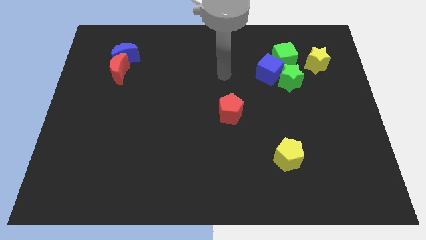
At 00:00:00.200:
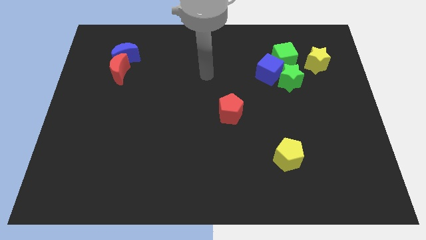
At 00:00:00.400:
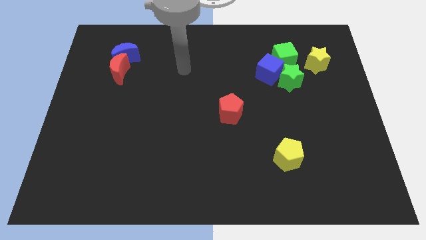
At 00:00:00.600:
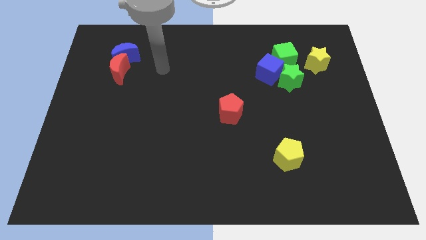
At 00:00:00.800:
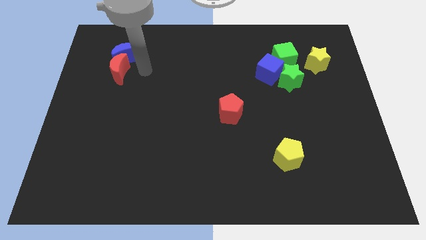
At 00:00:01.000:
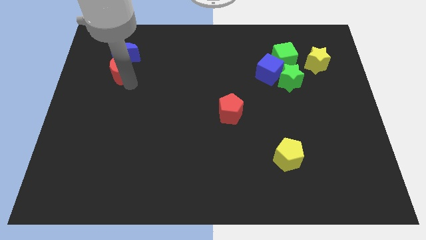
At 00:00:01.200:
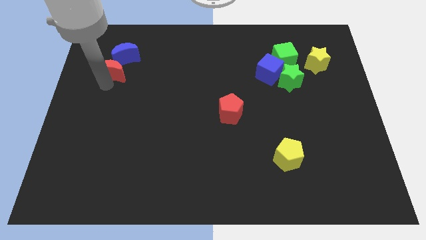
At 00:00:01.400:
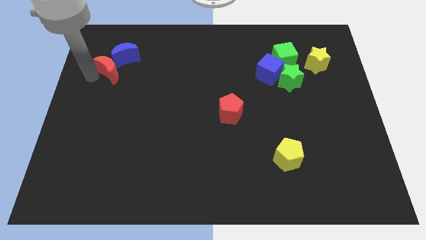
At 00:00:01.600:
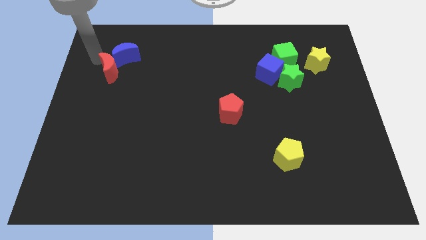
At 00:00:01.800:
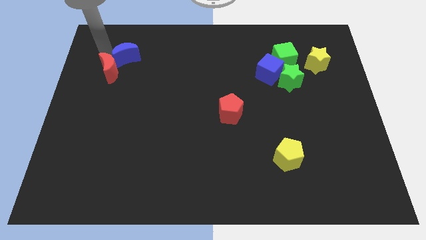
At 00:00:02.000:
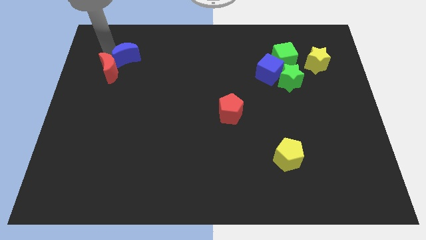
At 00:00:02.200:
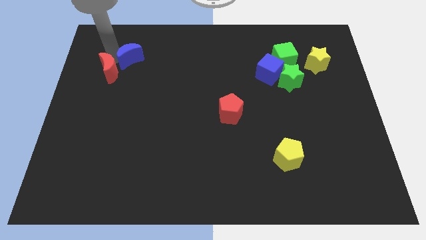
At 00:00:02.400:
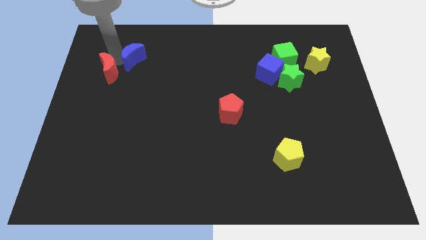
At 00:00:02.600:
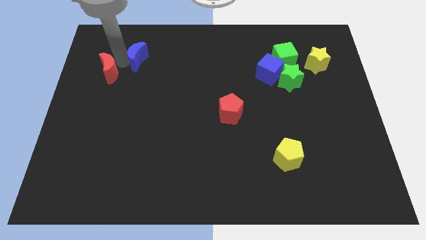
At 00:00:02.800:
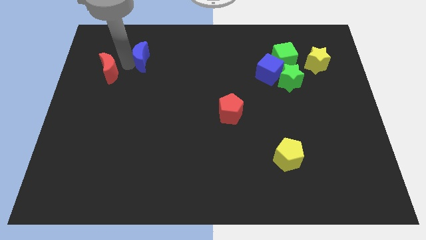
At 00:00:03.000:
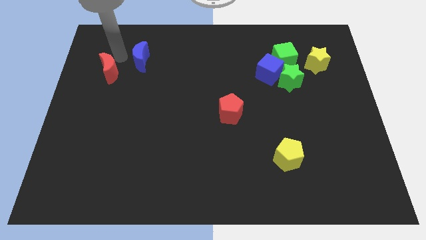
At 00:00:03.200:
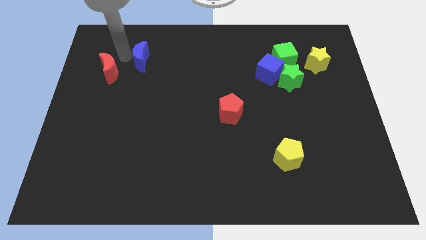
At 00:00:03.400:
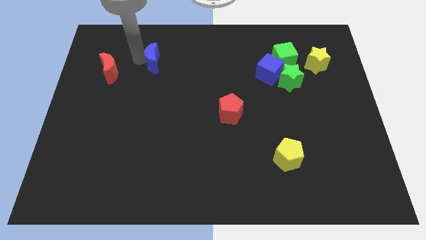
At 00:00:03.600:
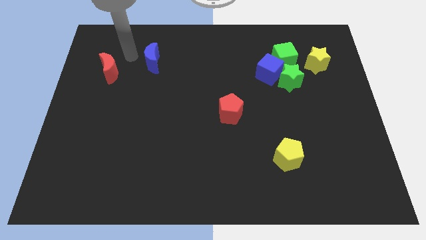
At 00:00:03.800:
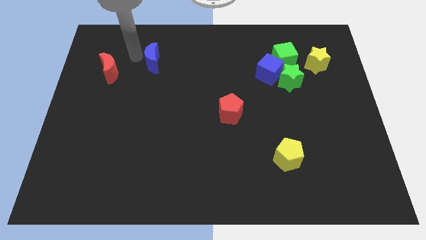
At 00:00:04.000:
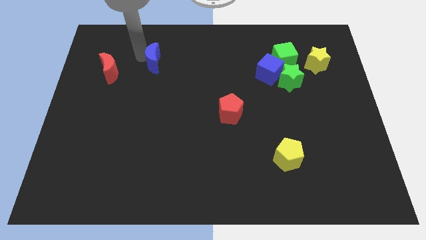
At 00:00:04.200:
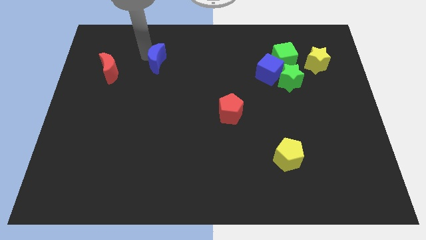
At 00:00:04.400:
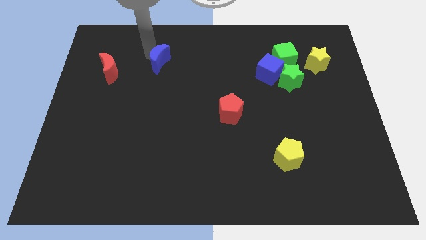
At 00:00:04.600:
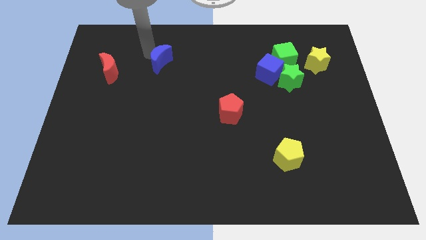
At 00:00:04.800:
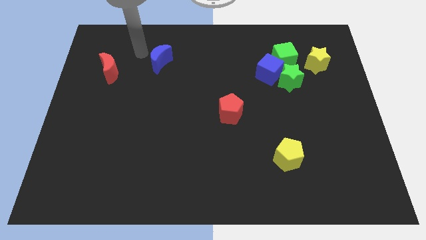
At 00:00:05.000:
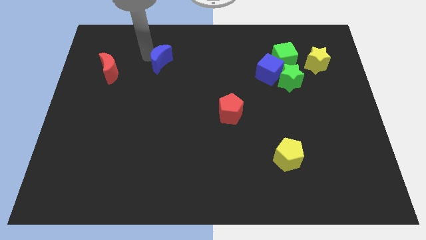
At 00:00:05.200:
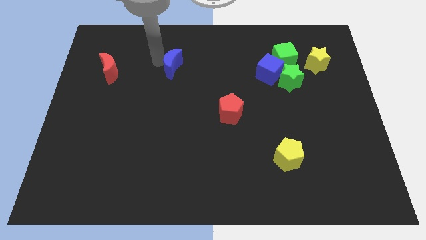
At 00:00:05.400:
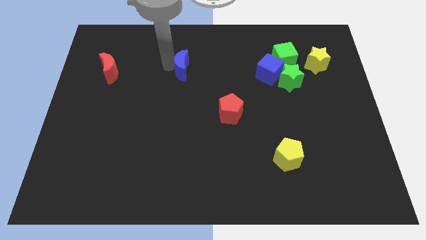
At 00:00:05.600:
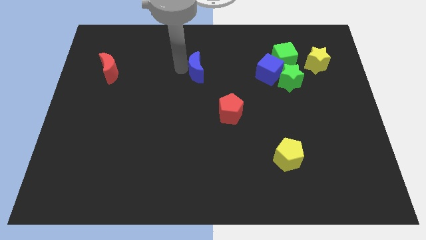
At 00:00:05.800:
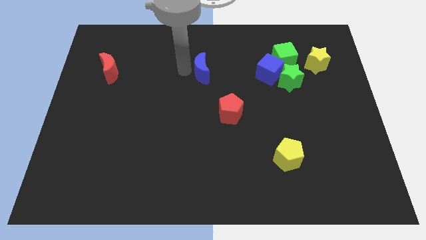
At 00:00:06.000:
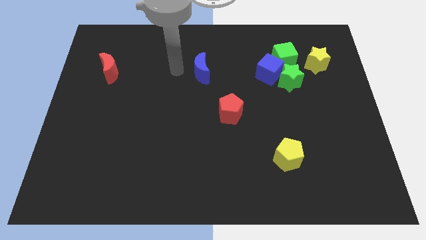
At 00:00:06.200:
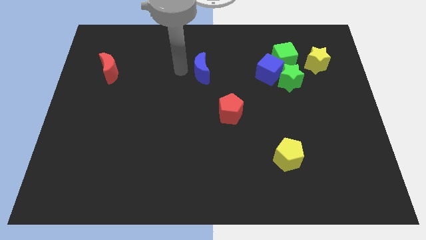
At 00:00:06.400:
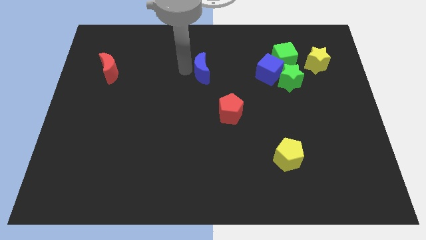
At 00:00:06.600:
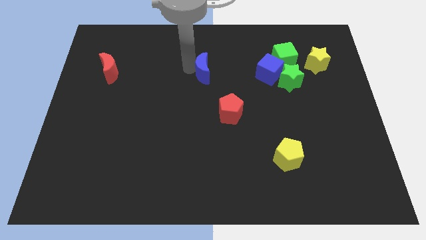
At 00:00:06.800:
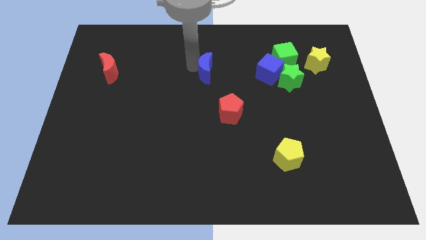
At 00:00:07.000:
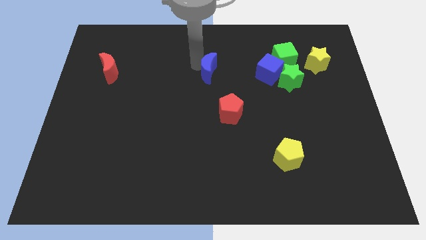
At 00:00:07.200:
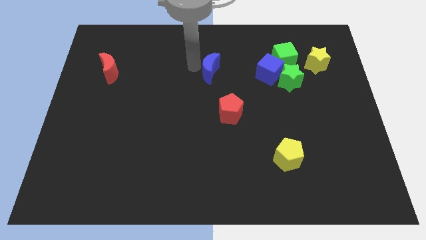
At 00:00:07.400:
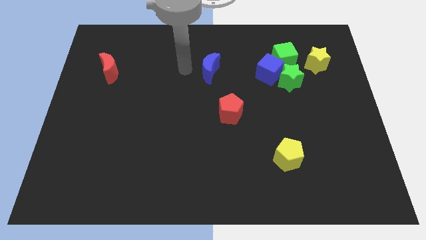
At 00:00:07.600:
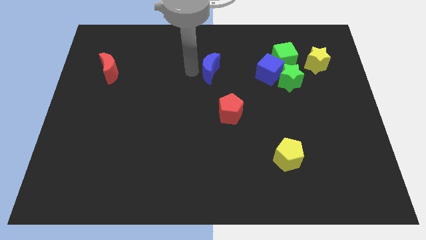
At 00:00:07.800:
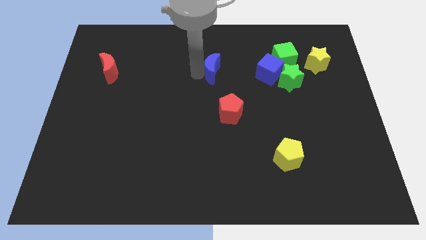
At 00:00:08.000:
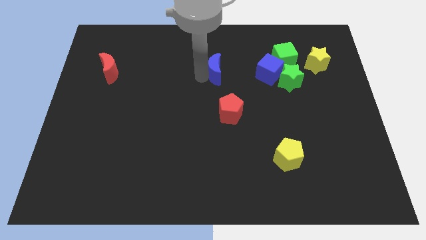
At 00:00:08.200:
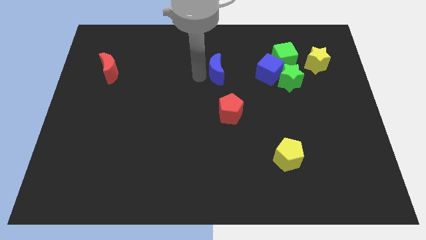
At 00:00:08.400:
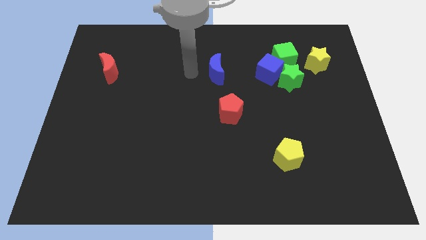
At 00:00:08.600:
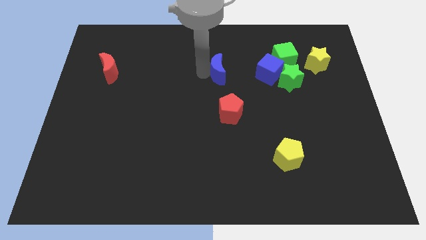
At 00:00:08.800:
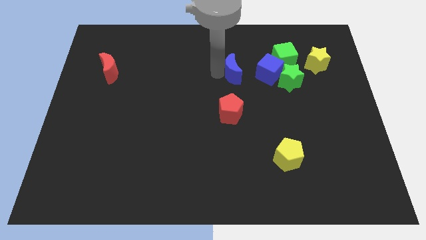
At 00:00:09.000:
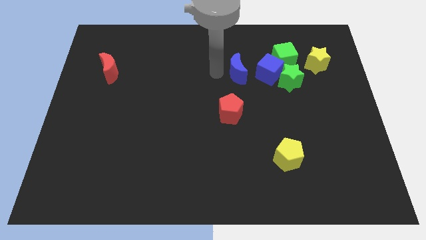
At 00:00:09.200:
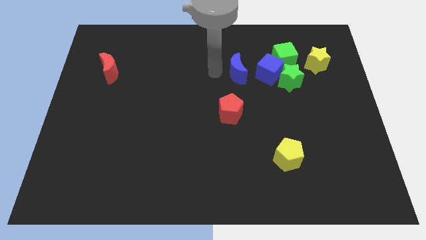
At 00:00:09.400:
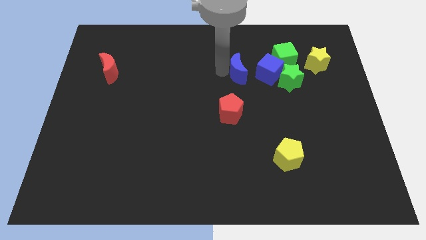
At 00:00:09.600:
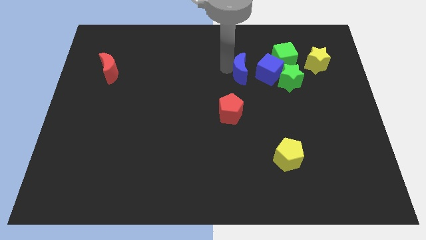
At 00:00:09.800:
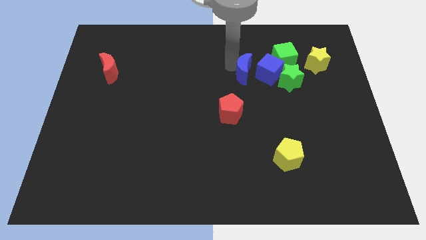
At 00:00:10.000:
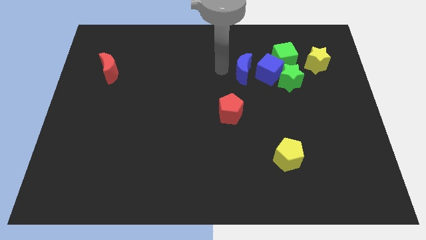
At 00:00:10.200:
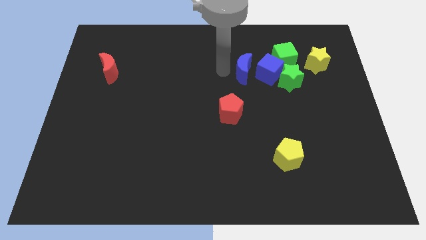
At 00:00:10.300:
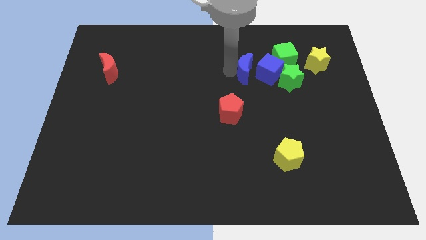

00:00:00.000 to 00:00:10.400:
move the blue moon towards the blue cube
